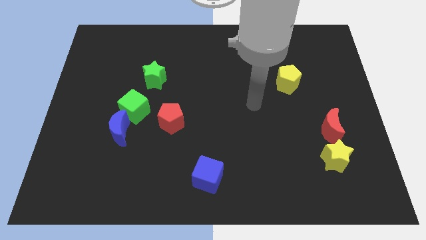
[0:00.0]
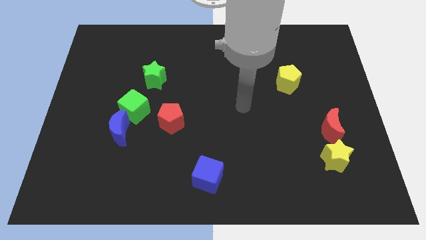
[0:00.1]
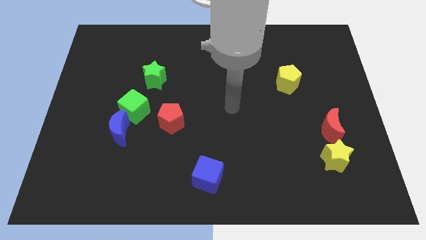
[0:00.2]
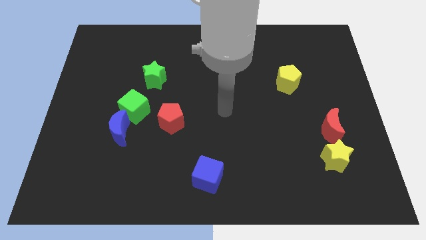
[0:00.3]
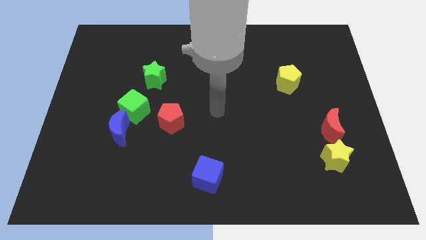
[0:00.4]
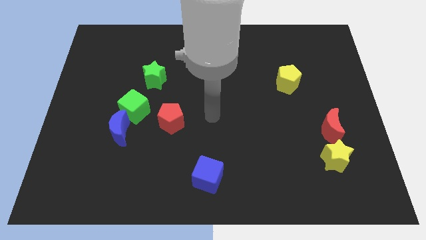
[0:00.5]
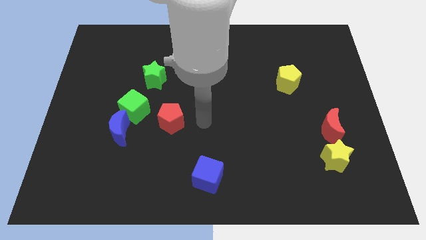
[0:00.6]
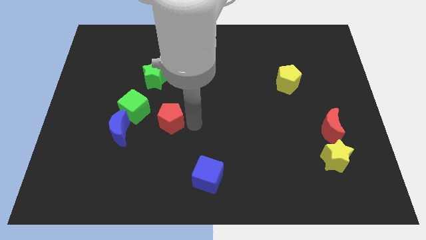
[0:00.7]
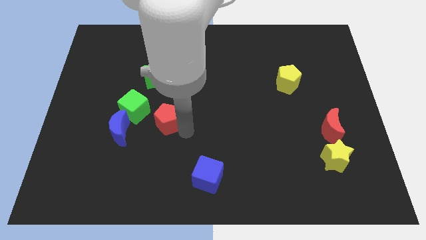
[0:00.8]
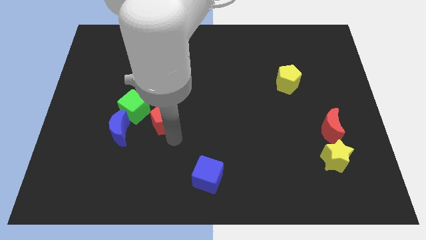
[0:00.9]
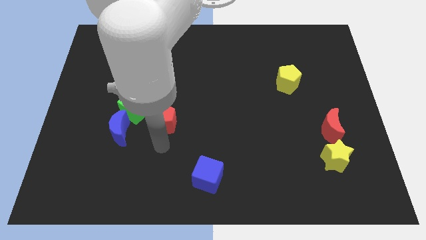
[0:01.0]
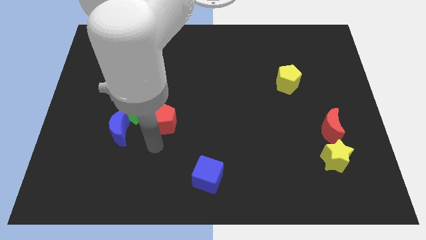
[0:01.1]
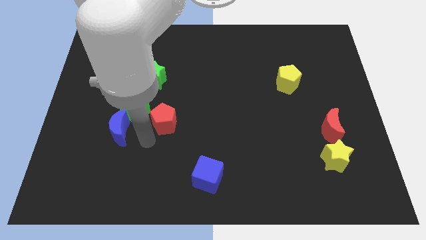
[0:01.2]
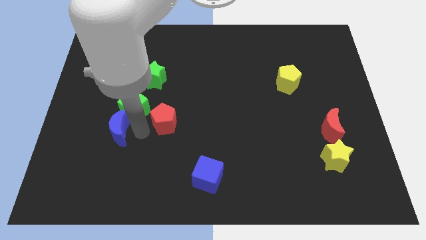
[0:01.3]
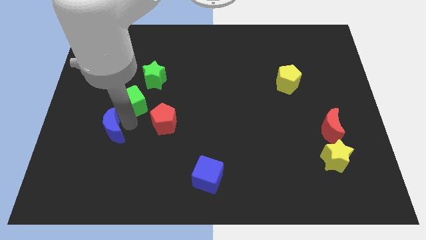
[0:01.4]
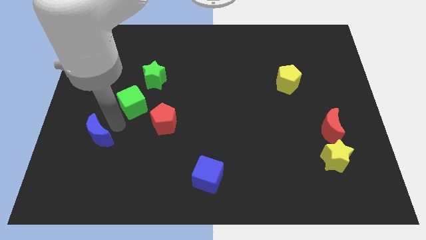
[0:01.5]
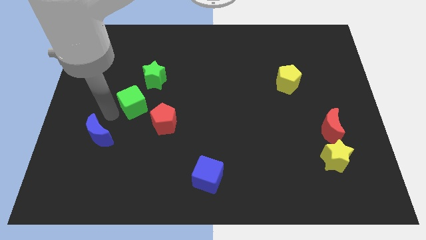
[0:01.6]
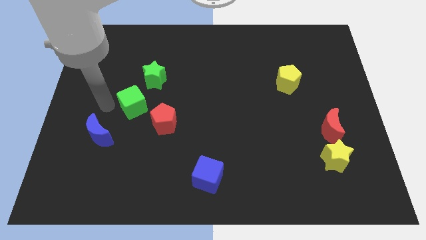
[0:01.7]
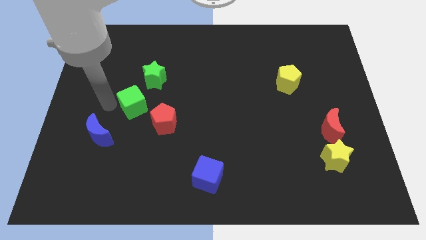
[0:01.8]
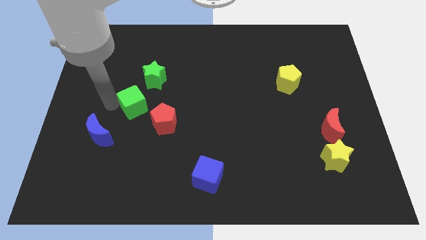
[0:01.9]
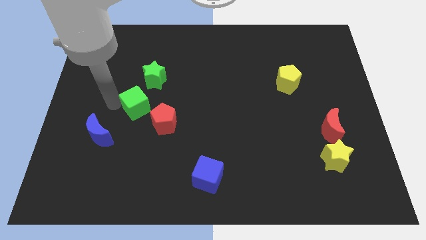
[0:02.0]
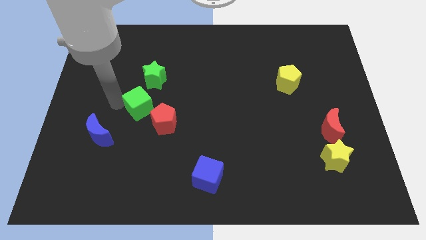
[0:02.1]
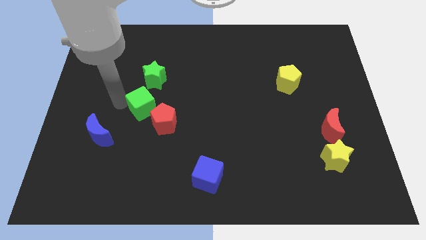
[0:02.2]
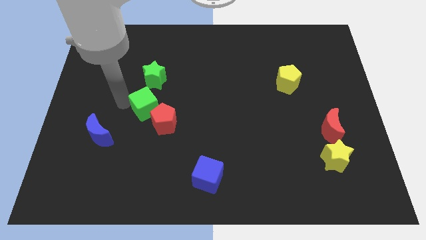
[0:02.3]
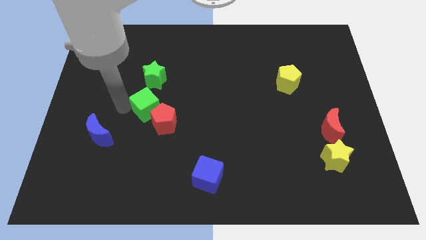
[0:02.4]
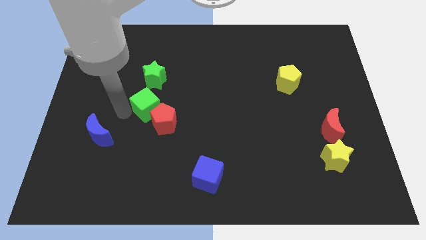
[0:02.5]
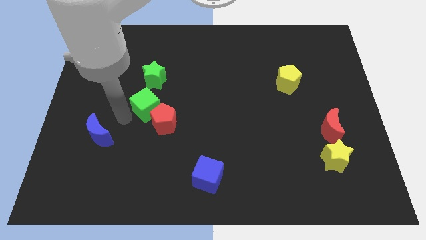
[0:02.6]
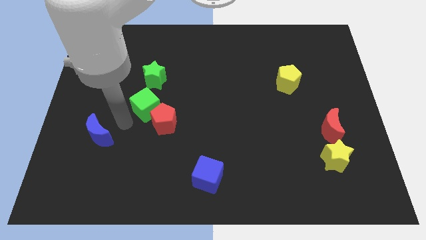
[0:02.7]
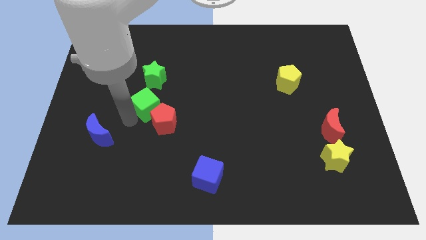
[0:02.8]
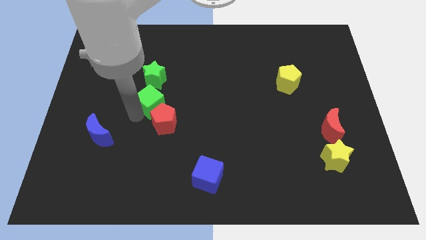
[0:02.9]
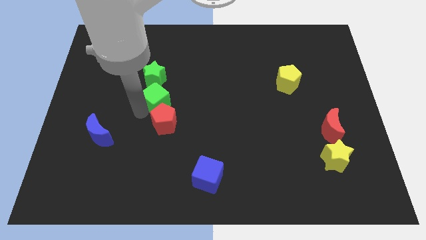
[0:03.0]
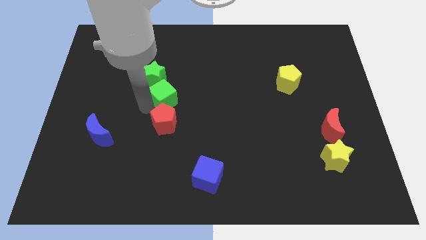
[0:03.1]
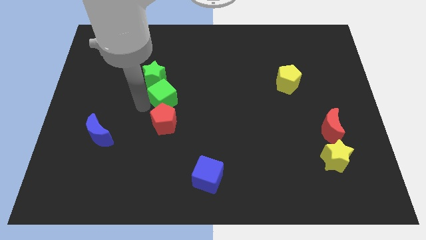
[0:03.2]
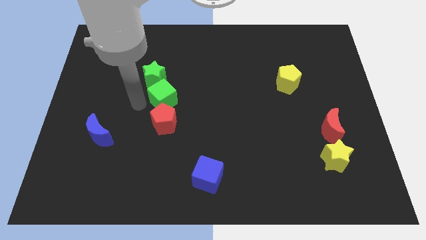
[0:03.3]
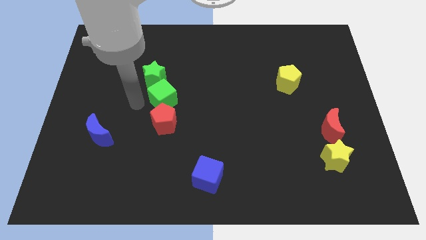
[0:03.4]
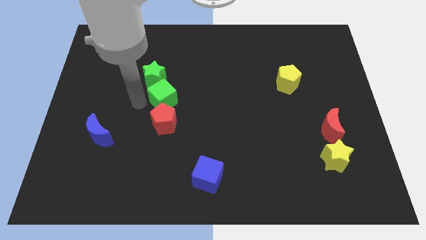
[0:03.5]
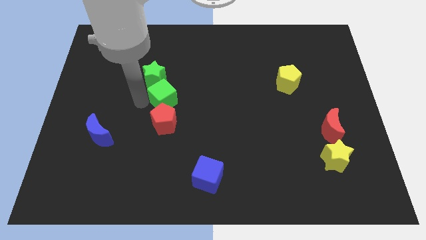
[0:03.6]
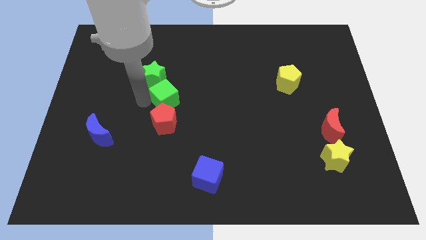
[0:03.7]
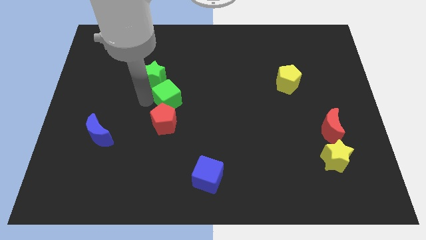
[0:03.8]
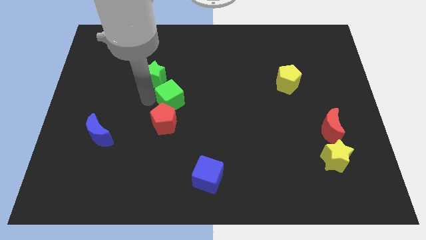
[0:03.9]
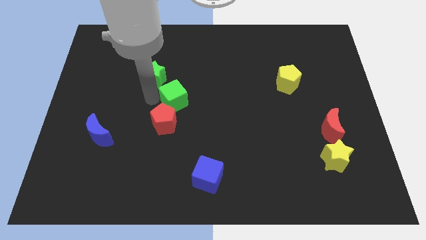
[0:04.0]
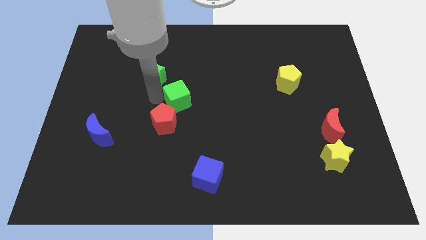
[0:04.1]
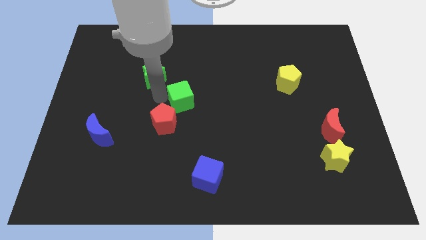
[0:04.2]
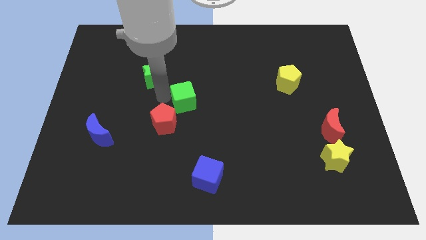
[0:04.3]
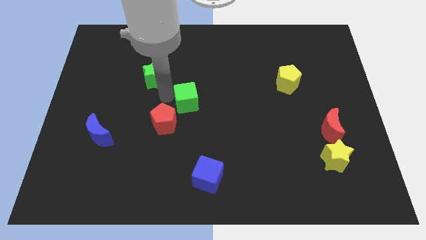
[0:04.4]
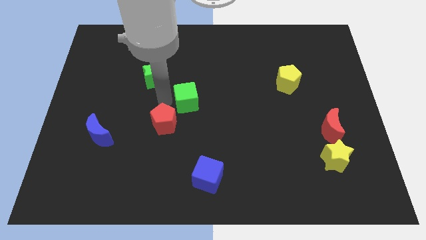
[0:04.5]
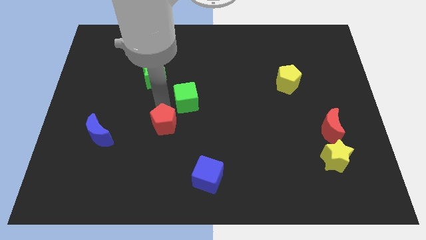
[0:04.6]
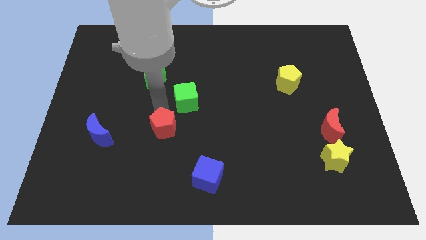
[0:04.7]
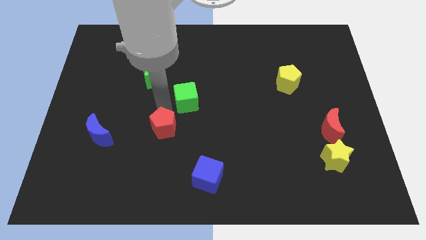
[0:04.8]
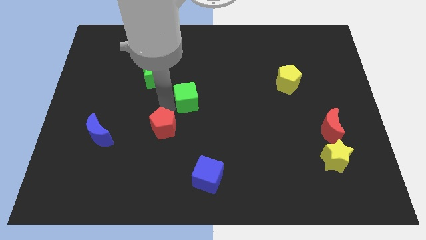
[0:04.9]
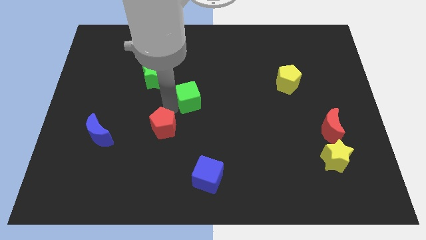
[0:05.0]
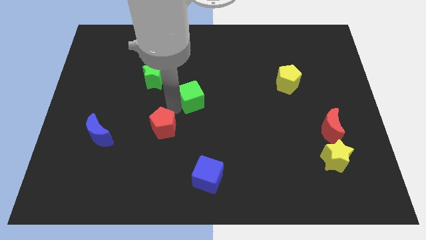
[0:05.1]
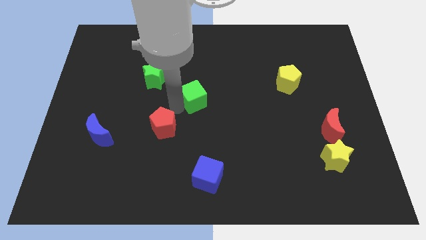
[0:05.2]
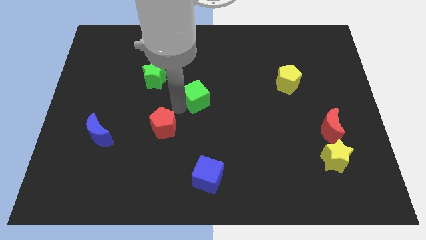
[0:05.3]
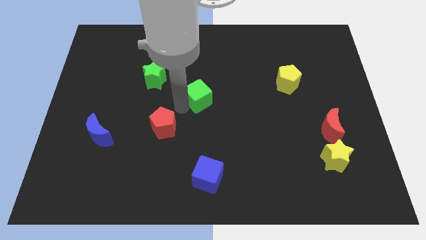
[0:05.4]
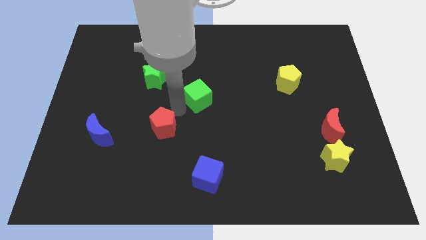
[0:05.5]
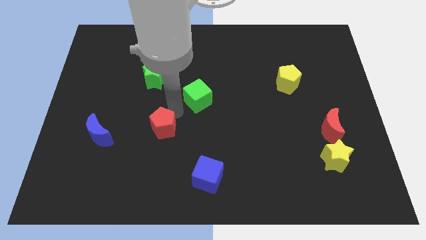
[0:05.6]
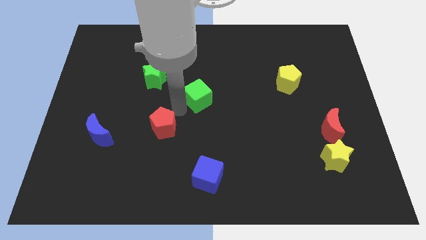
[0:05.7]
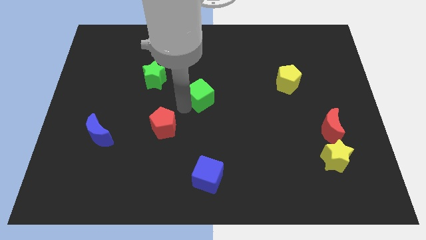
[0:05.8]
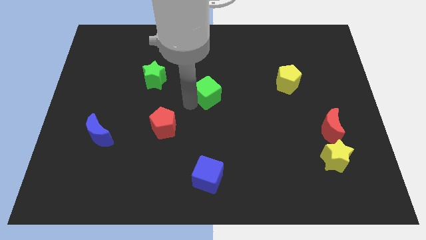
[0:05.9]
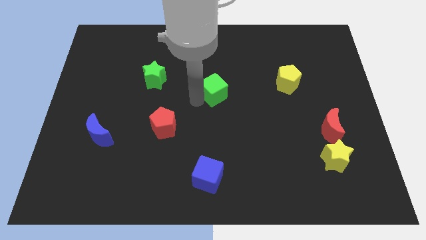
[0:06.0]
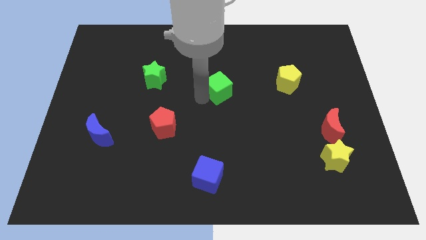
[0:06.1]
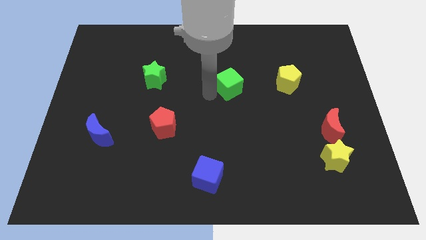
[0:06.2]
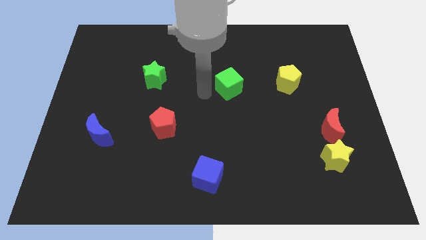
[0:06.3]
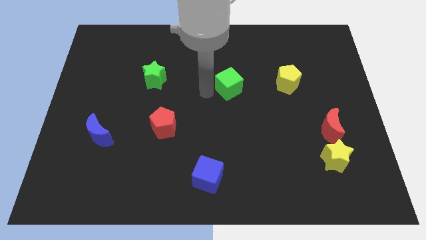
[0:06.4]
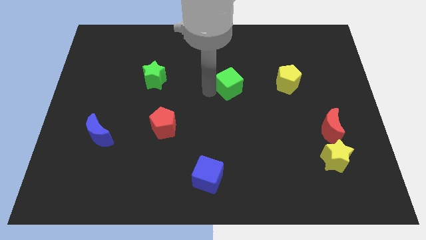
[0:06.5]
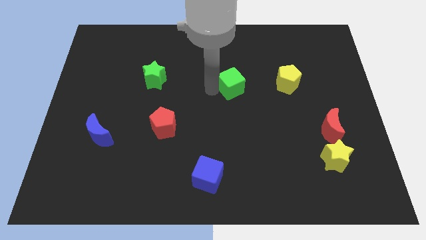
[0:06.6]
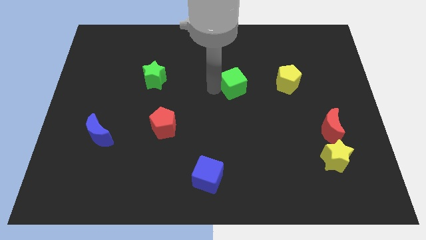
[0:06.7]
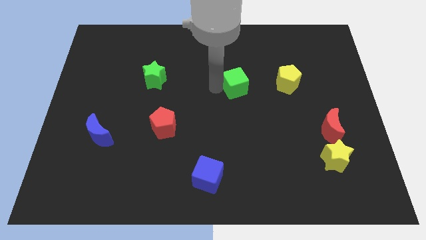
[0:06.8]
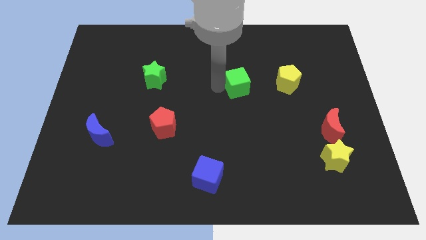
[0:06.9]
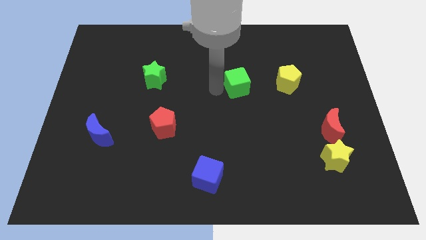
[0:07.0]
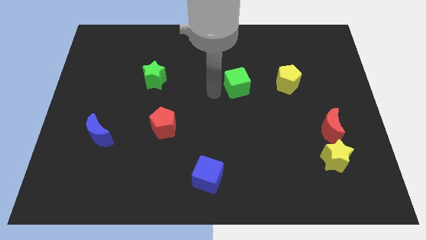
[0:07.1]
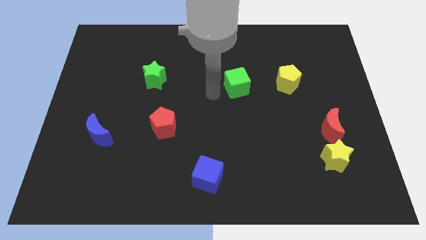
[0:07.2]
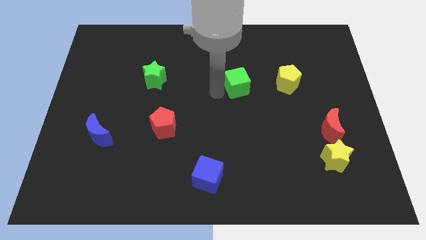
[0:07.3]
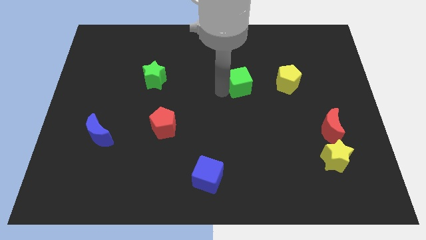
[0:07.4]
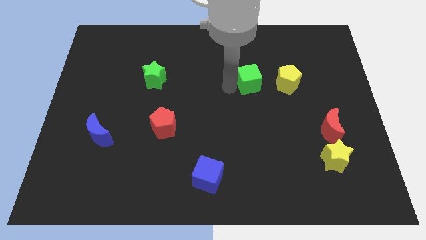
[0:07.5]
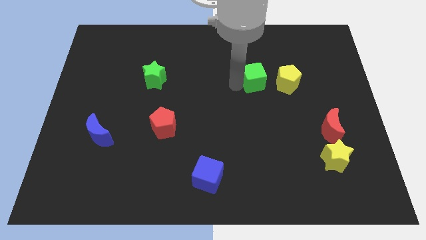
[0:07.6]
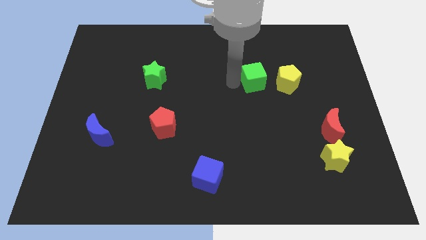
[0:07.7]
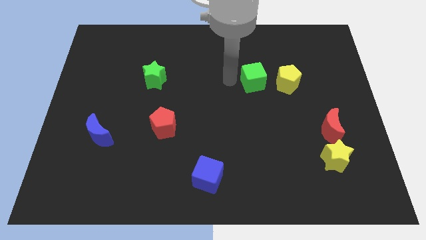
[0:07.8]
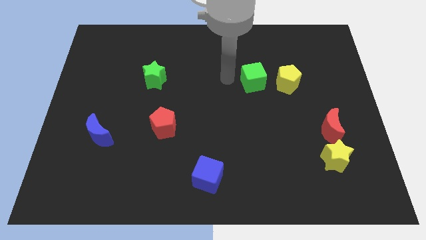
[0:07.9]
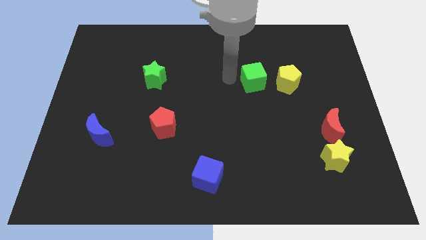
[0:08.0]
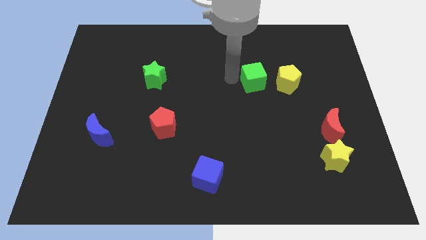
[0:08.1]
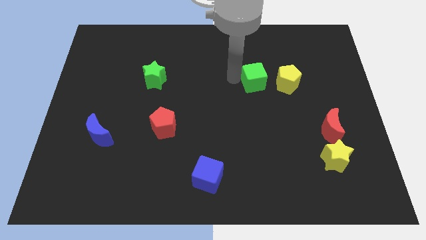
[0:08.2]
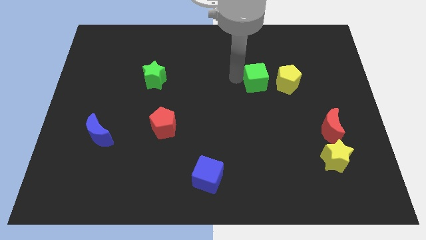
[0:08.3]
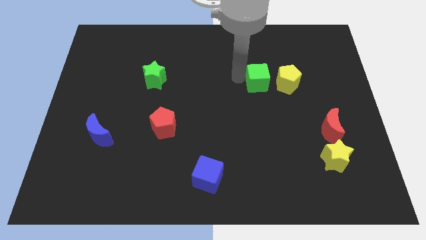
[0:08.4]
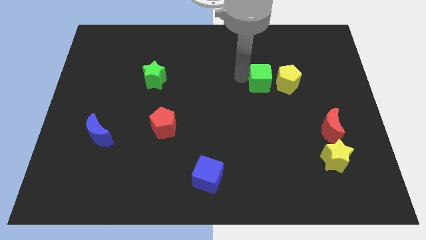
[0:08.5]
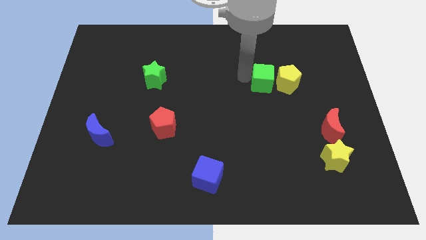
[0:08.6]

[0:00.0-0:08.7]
push the green cube next to the yellow pentagon
